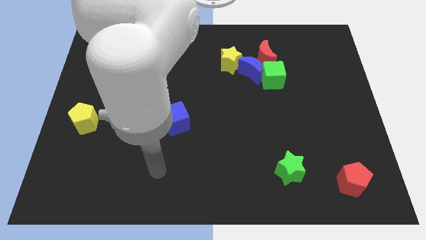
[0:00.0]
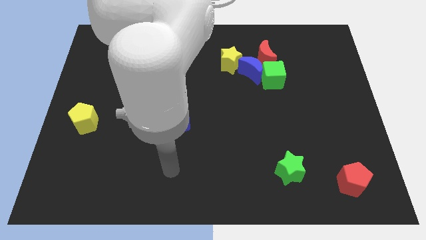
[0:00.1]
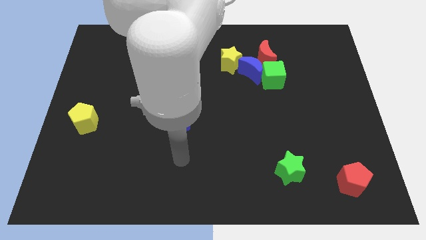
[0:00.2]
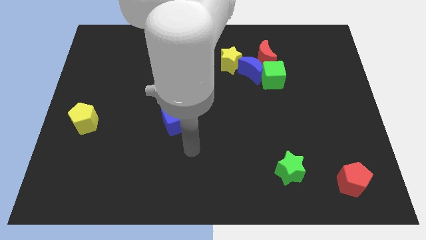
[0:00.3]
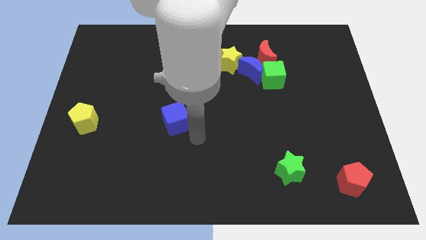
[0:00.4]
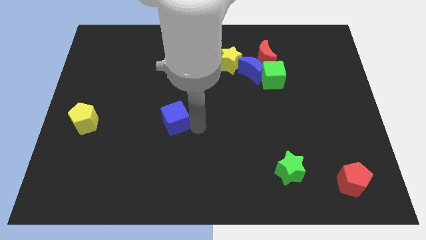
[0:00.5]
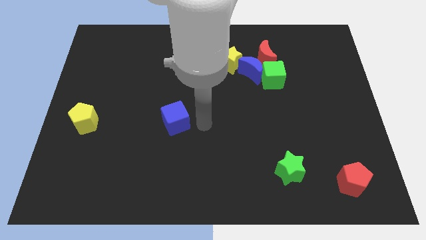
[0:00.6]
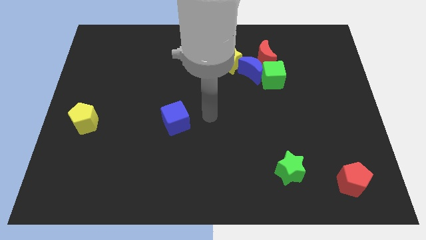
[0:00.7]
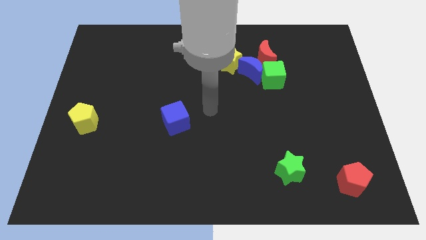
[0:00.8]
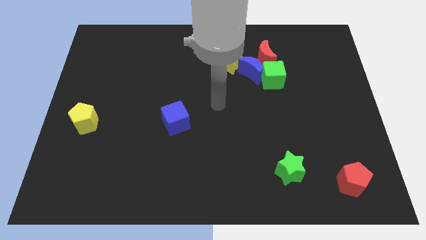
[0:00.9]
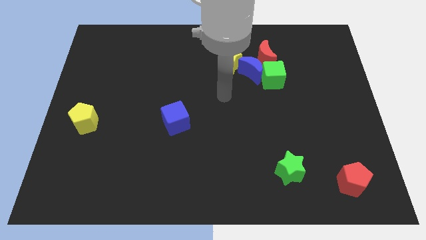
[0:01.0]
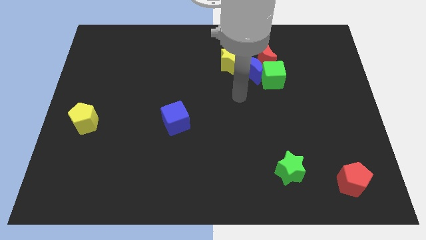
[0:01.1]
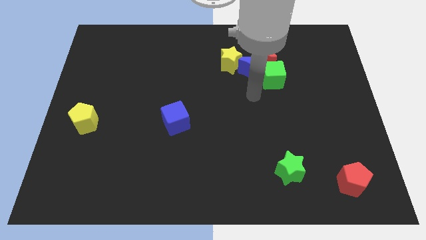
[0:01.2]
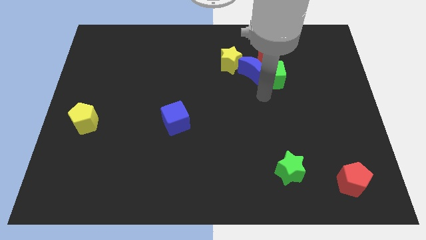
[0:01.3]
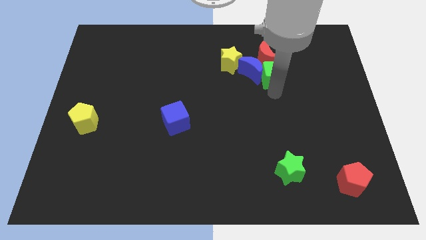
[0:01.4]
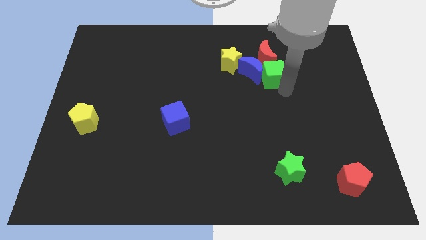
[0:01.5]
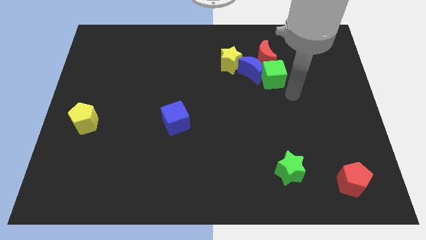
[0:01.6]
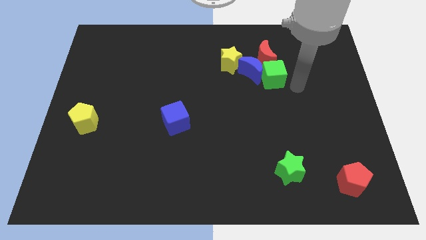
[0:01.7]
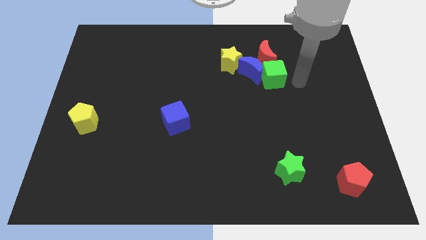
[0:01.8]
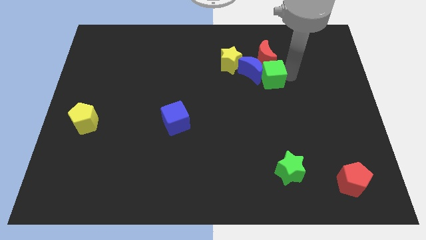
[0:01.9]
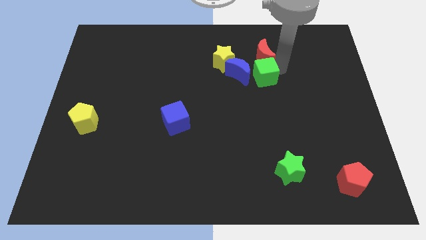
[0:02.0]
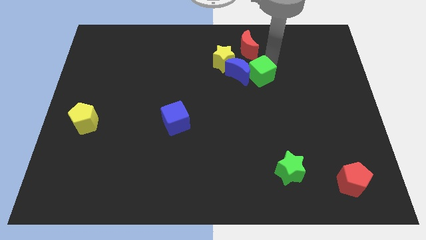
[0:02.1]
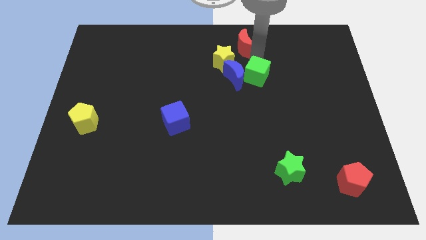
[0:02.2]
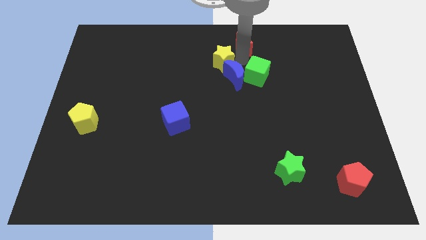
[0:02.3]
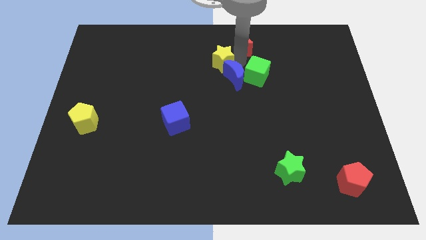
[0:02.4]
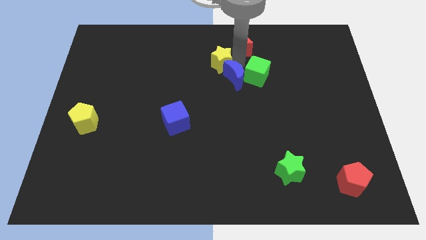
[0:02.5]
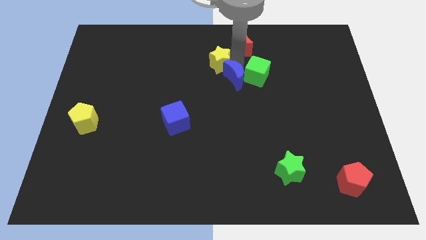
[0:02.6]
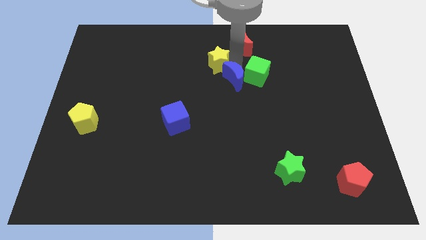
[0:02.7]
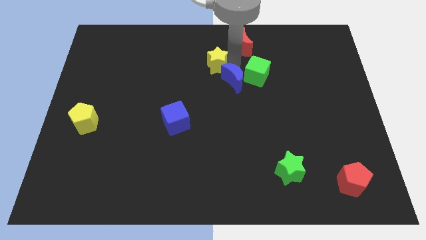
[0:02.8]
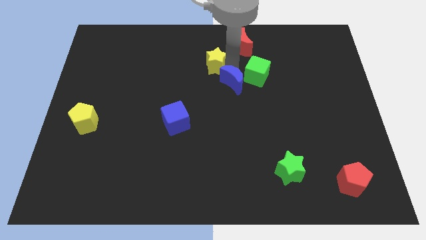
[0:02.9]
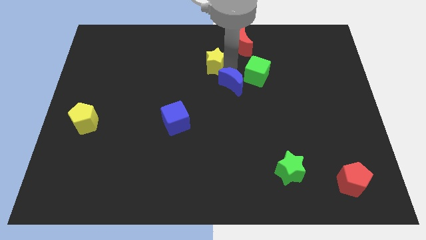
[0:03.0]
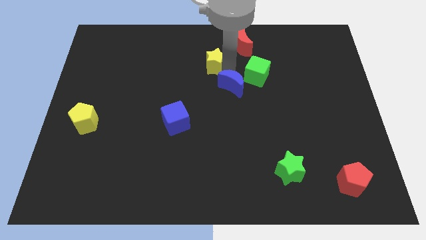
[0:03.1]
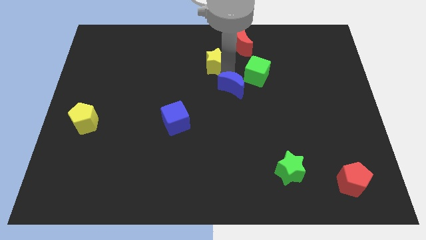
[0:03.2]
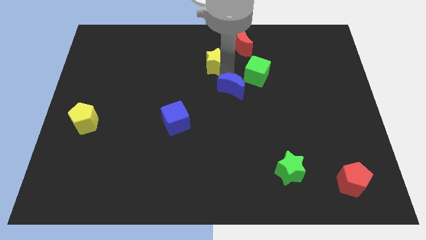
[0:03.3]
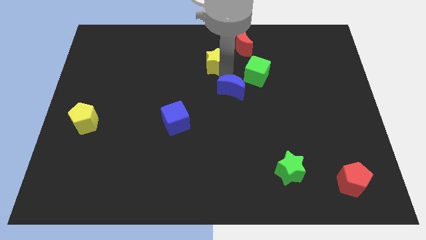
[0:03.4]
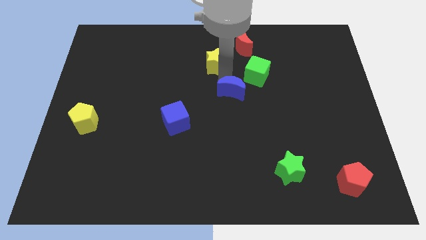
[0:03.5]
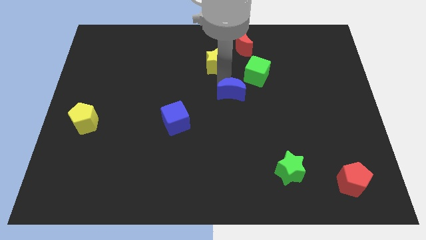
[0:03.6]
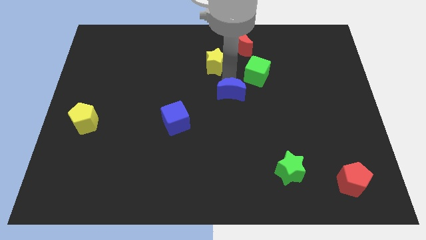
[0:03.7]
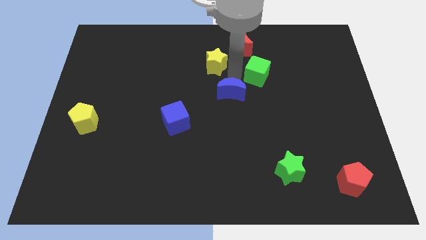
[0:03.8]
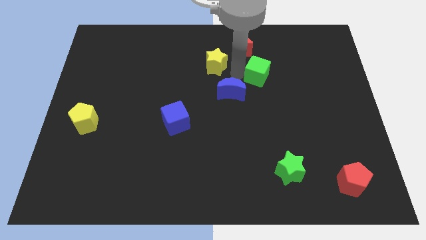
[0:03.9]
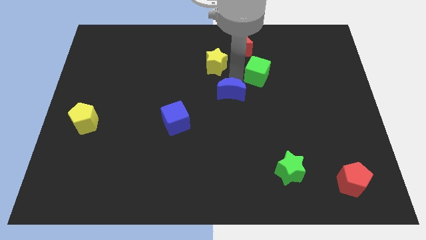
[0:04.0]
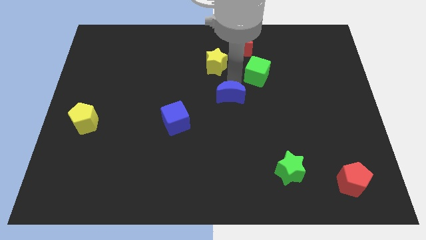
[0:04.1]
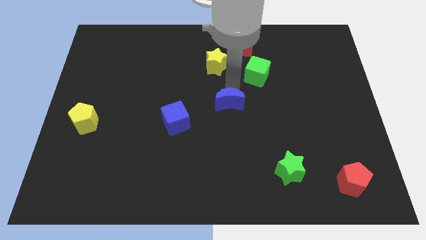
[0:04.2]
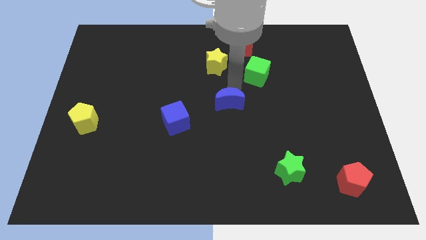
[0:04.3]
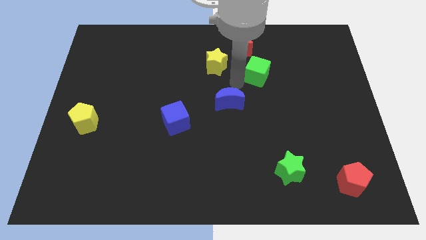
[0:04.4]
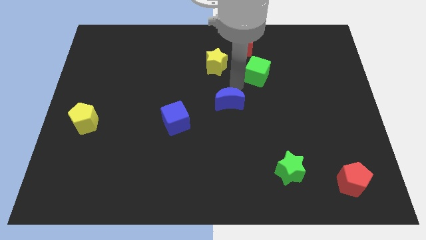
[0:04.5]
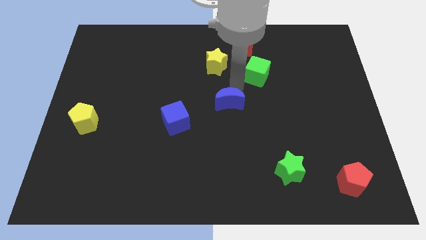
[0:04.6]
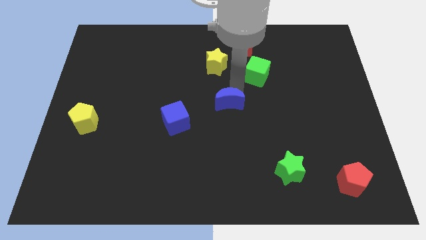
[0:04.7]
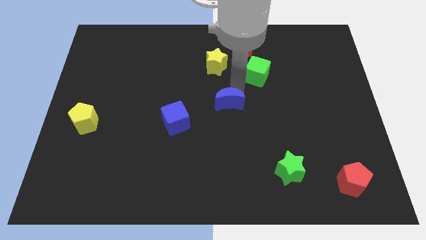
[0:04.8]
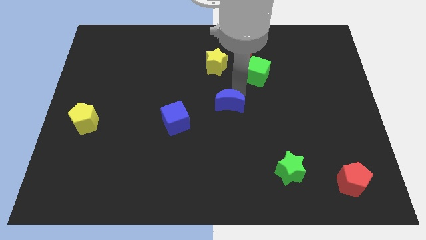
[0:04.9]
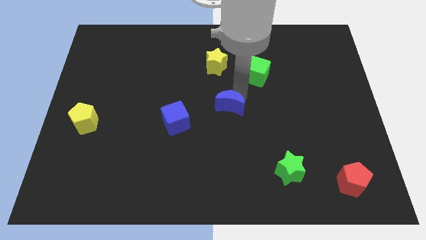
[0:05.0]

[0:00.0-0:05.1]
push the blue moon right of the blue cube

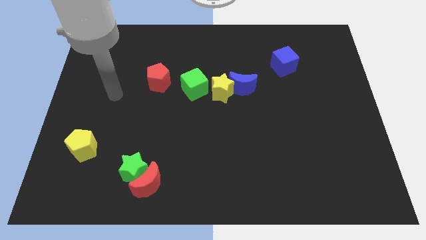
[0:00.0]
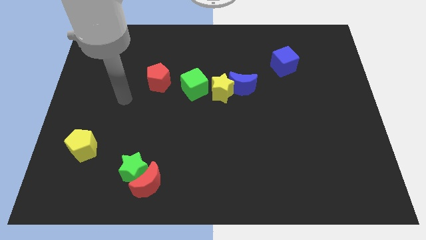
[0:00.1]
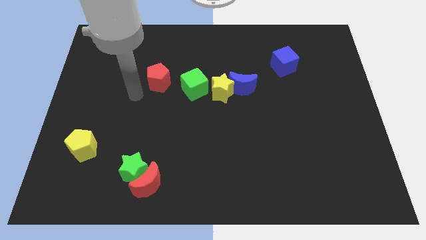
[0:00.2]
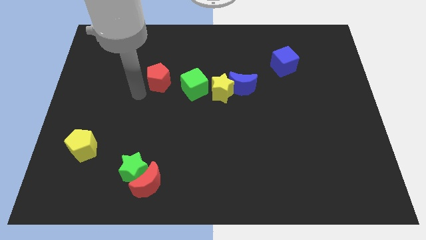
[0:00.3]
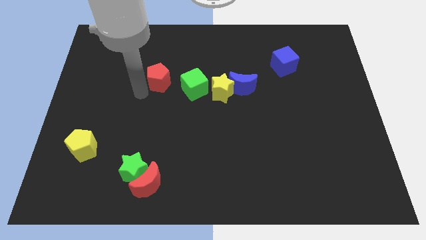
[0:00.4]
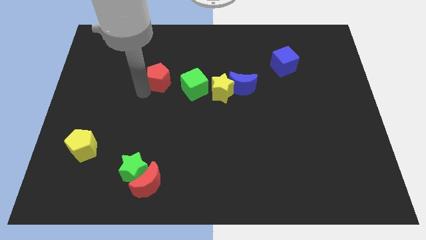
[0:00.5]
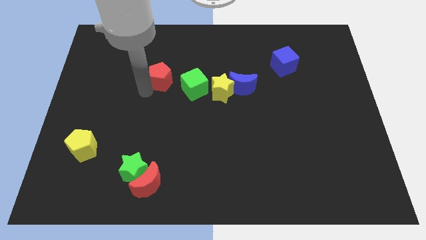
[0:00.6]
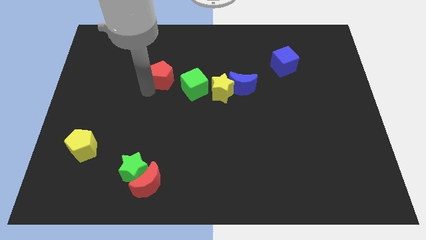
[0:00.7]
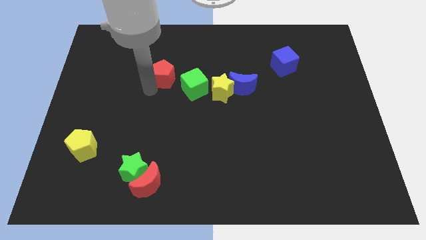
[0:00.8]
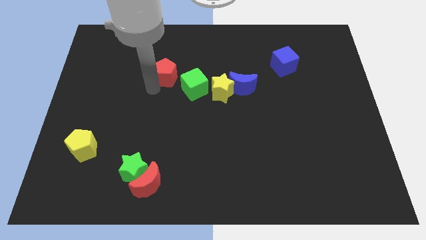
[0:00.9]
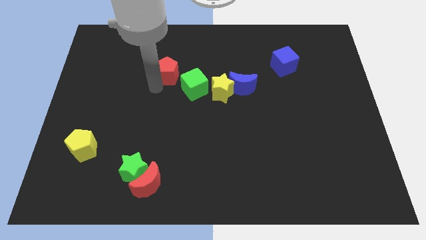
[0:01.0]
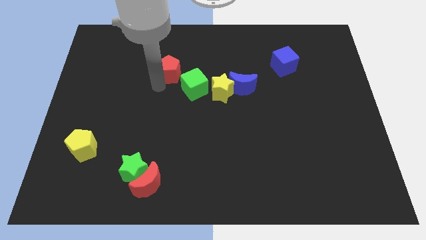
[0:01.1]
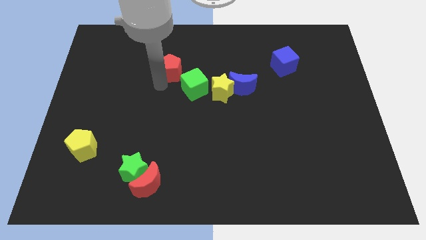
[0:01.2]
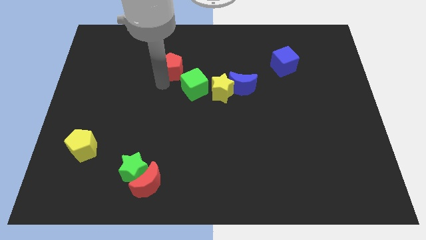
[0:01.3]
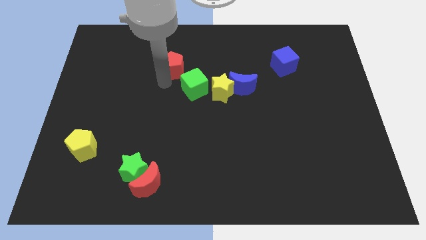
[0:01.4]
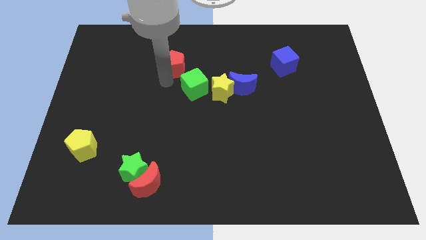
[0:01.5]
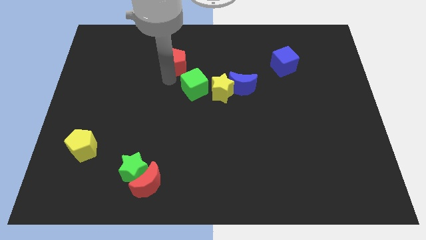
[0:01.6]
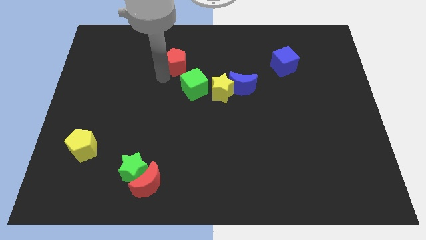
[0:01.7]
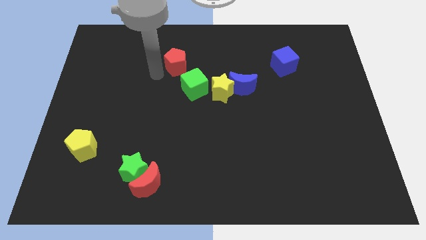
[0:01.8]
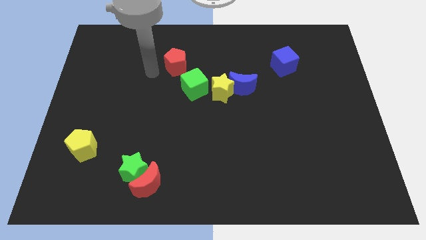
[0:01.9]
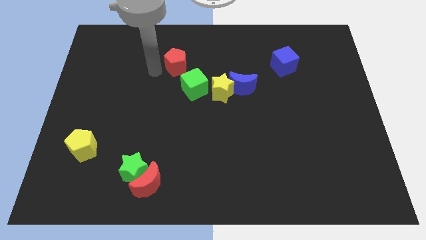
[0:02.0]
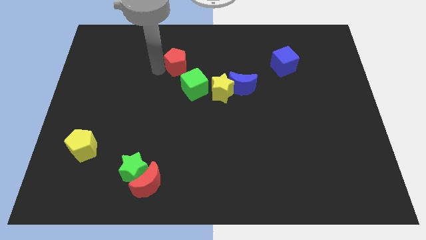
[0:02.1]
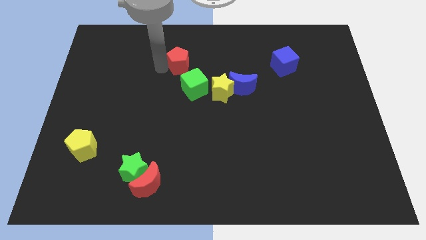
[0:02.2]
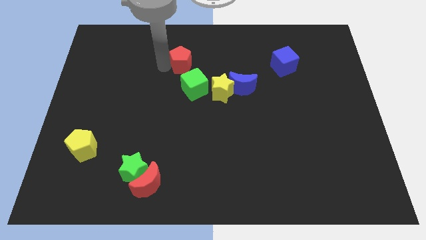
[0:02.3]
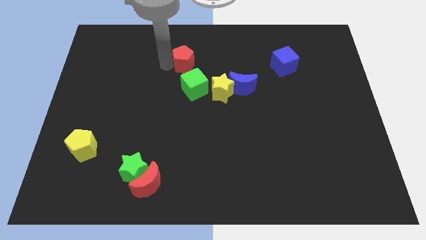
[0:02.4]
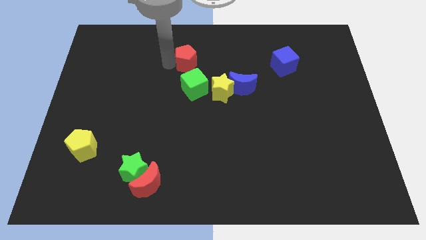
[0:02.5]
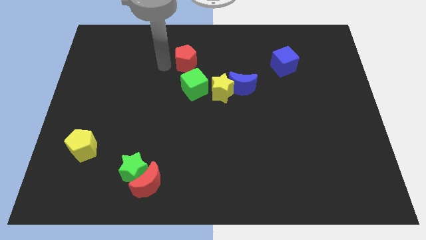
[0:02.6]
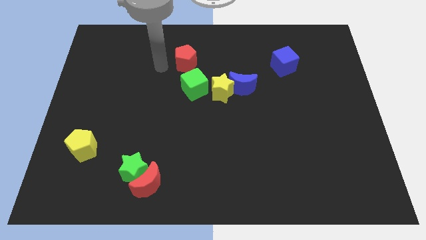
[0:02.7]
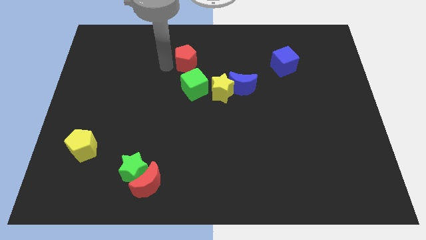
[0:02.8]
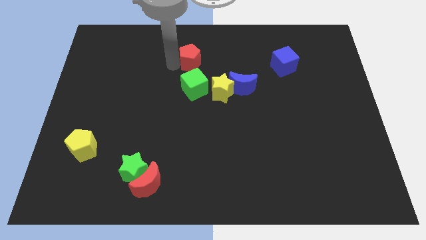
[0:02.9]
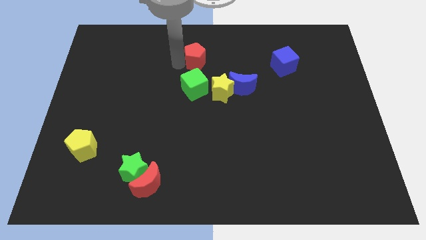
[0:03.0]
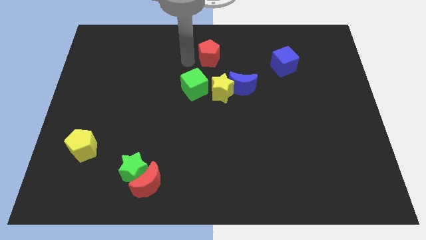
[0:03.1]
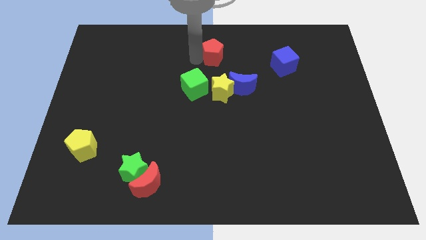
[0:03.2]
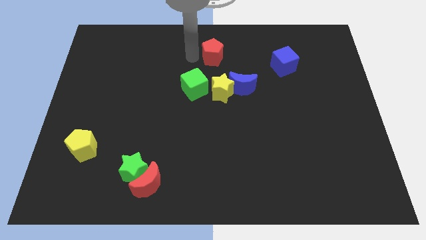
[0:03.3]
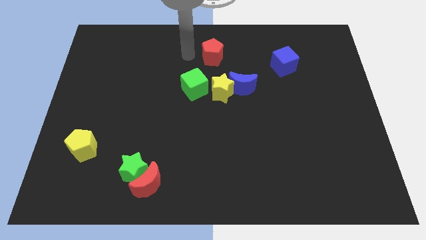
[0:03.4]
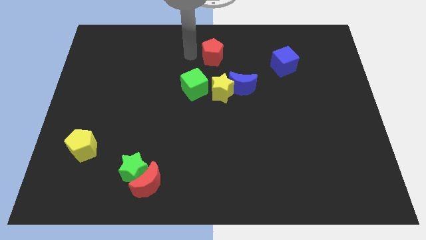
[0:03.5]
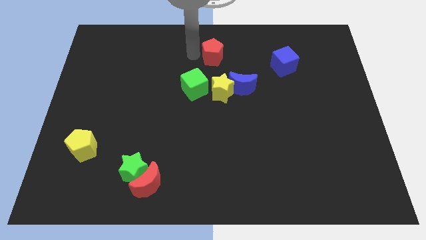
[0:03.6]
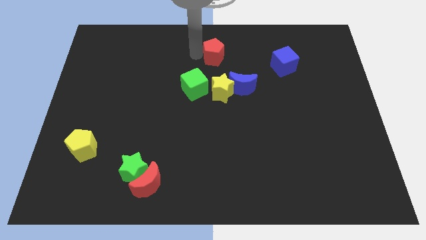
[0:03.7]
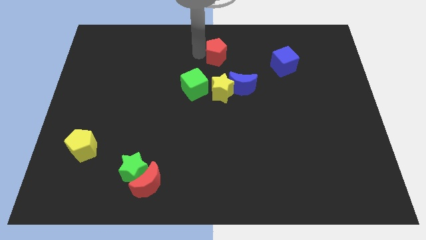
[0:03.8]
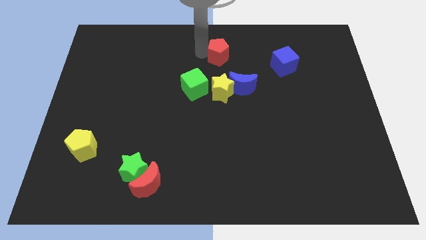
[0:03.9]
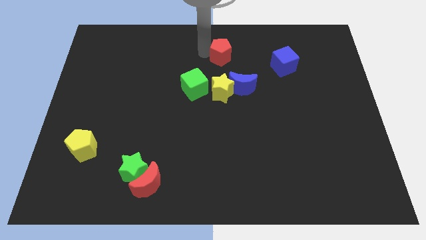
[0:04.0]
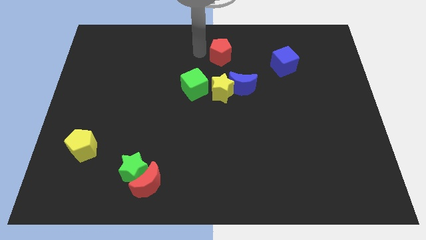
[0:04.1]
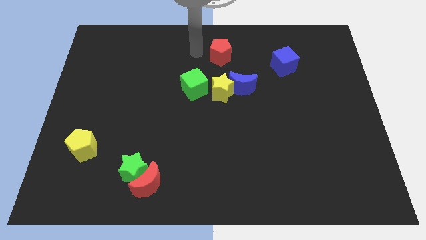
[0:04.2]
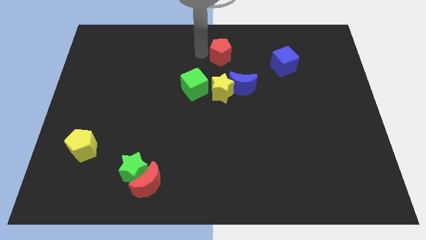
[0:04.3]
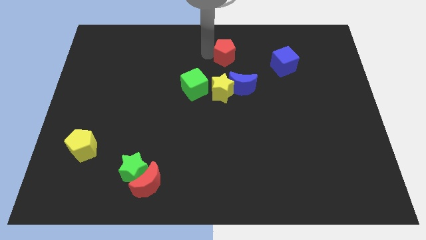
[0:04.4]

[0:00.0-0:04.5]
slide the red pentagon to the top of the blue moon
